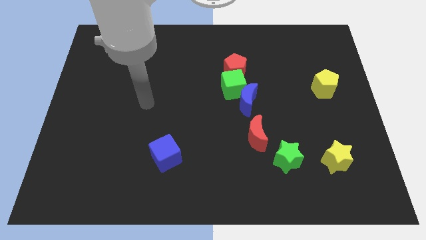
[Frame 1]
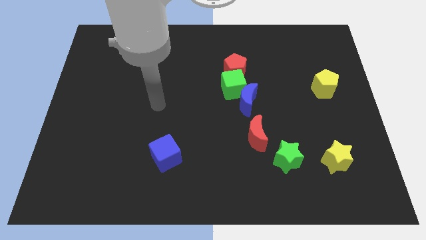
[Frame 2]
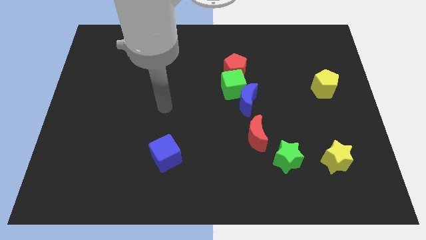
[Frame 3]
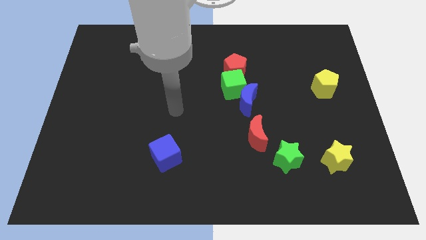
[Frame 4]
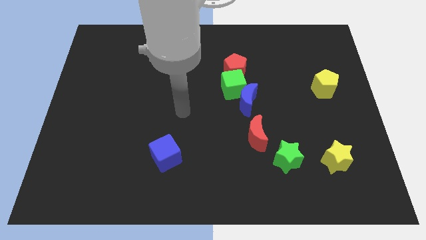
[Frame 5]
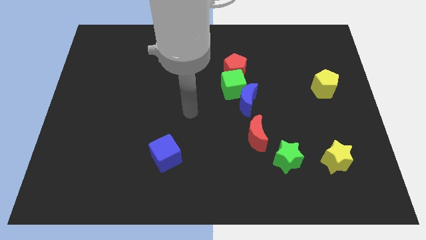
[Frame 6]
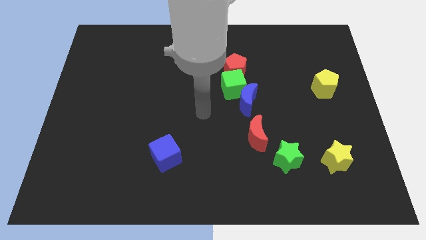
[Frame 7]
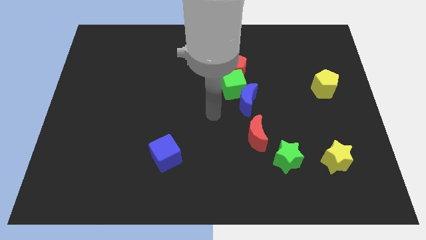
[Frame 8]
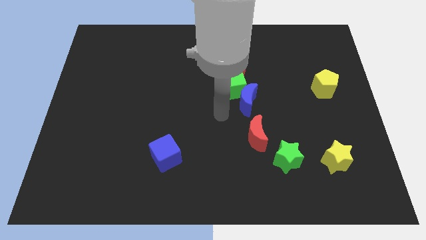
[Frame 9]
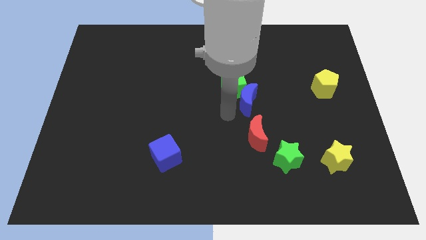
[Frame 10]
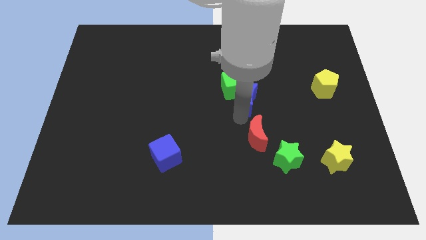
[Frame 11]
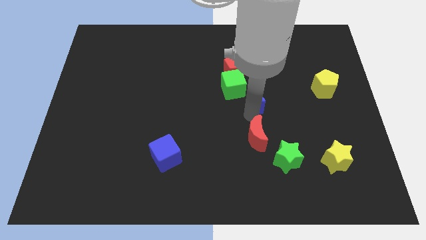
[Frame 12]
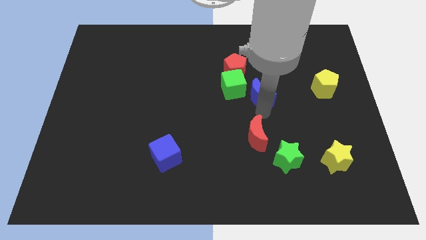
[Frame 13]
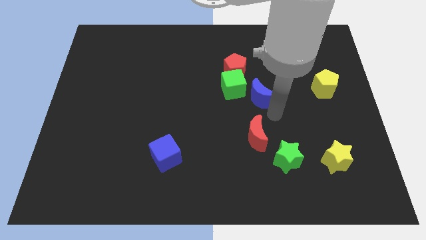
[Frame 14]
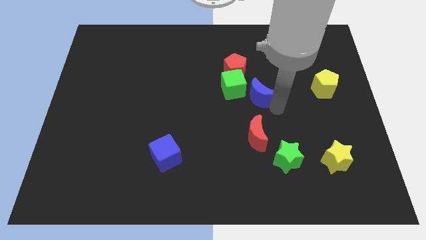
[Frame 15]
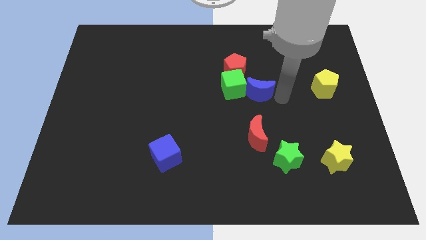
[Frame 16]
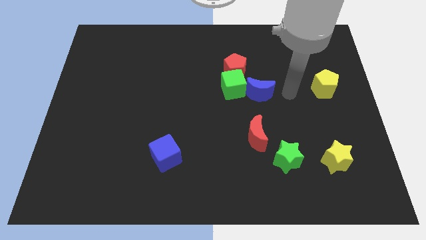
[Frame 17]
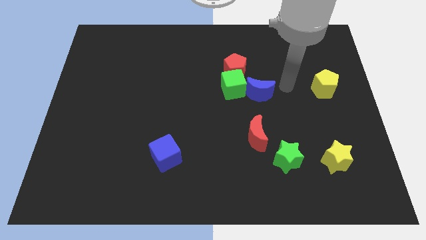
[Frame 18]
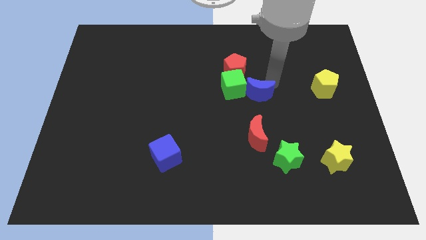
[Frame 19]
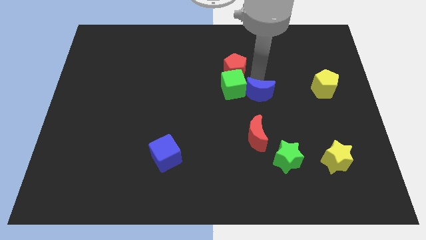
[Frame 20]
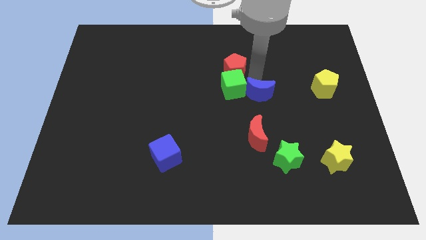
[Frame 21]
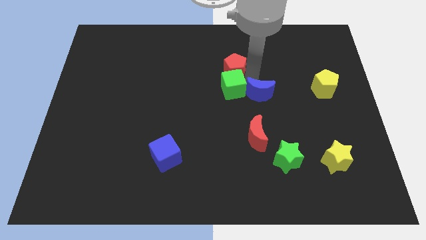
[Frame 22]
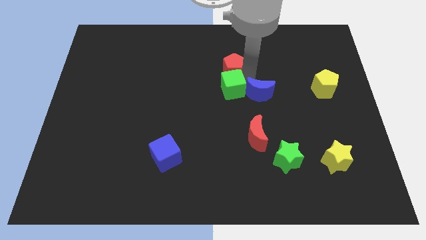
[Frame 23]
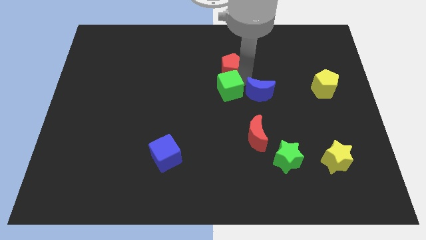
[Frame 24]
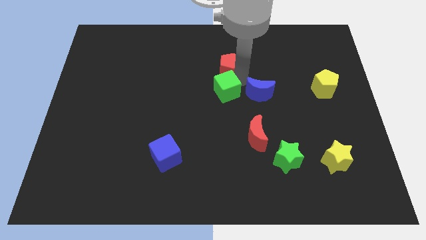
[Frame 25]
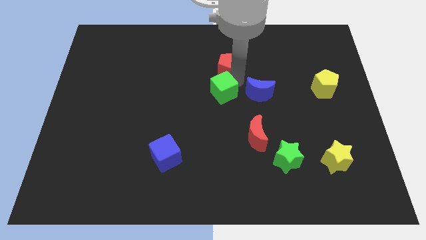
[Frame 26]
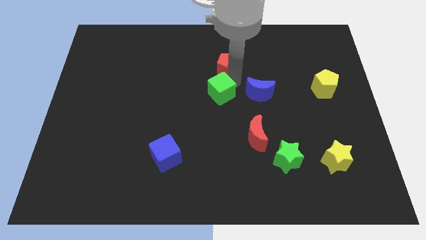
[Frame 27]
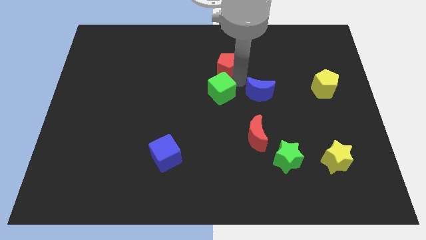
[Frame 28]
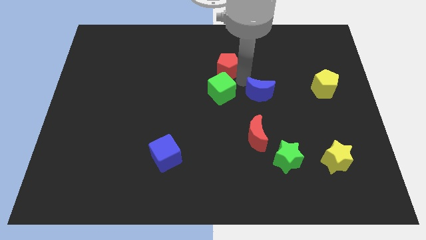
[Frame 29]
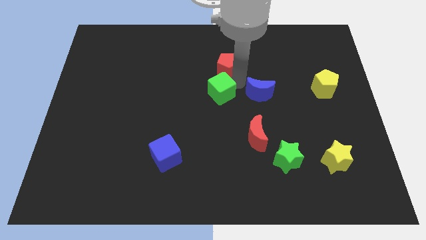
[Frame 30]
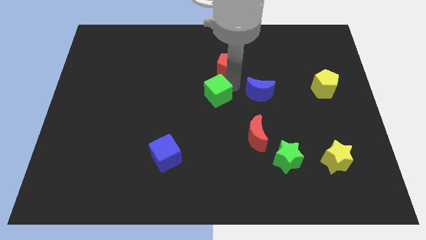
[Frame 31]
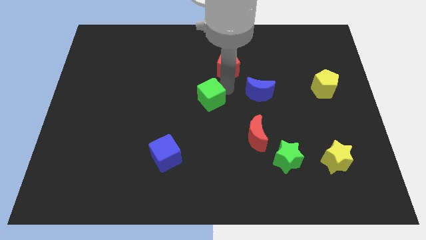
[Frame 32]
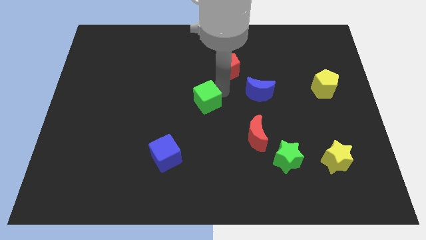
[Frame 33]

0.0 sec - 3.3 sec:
separate the green cube from the blue moon and red pentagon

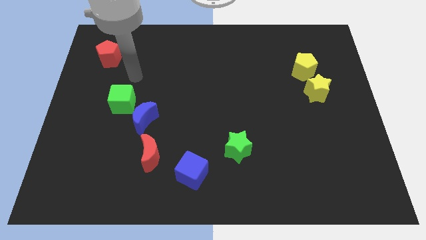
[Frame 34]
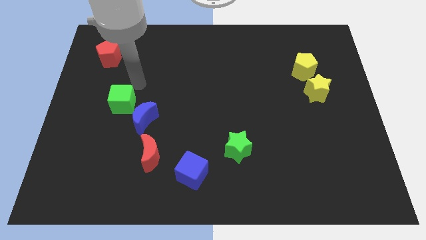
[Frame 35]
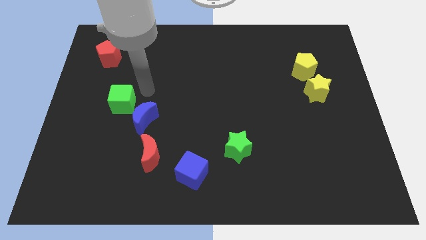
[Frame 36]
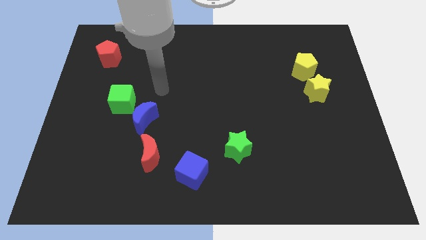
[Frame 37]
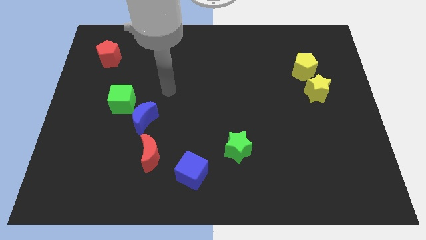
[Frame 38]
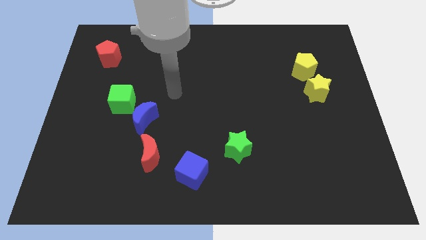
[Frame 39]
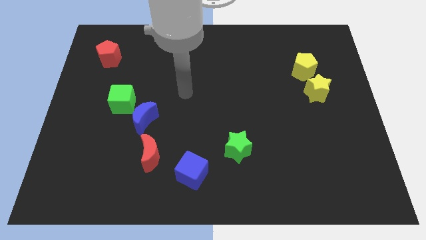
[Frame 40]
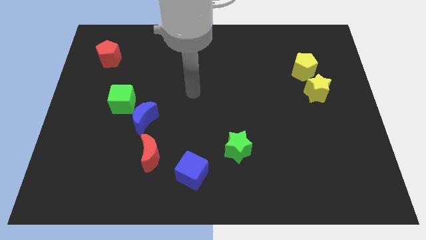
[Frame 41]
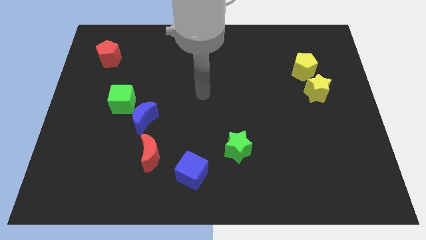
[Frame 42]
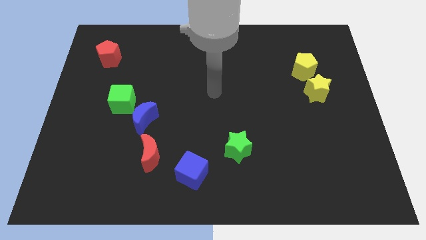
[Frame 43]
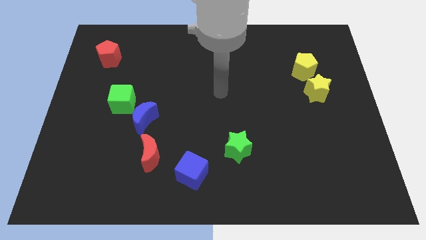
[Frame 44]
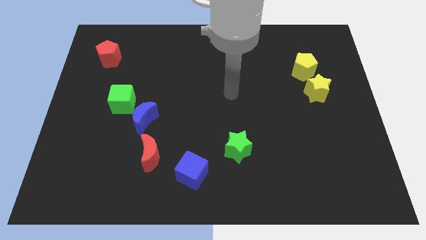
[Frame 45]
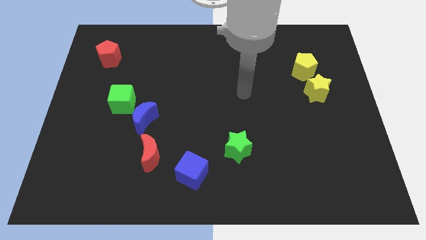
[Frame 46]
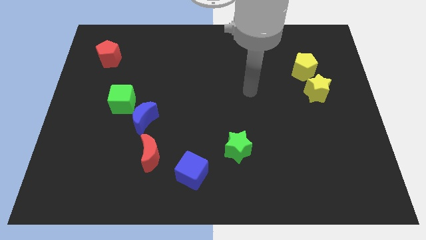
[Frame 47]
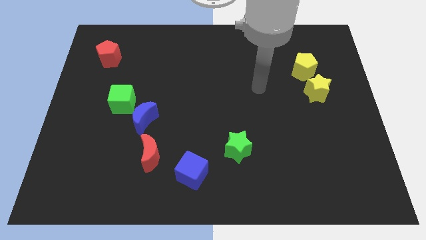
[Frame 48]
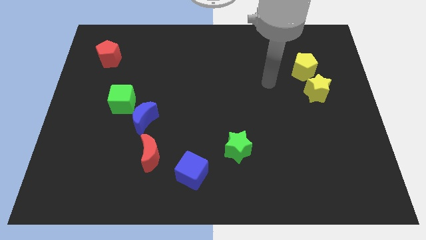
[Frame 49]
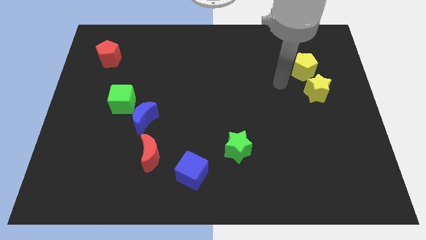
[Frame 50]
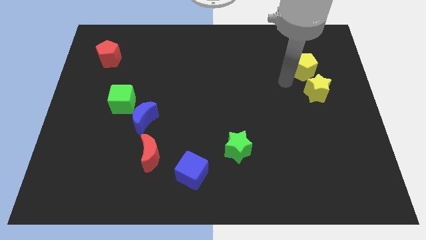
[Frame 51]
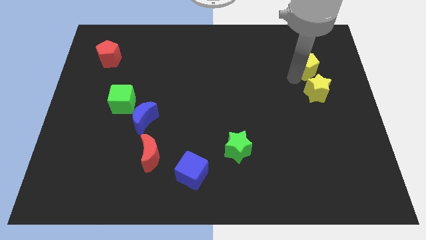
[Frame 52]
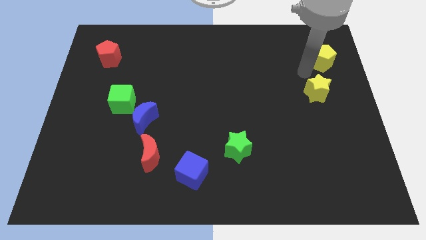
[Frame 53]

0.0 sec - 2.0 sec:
move the yellow star away from the yellow pentagon

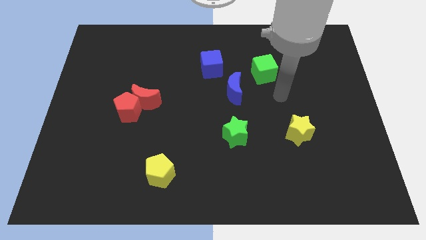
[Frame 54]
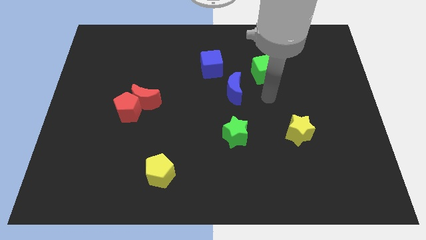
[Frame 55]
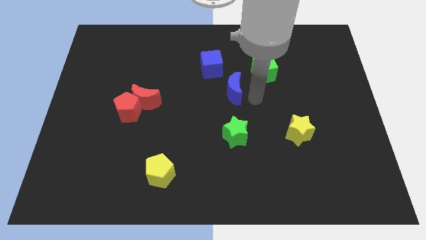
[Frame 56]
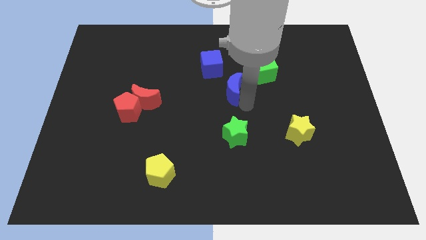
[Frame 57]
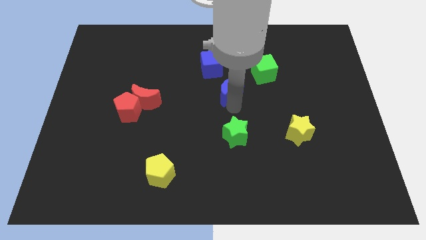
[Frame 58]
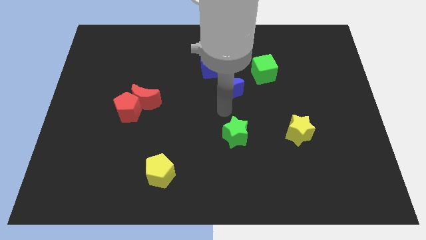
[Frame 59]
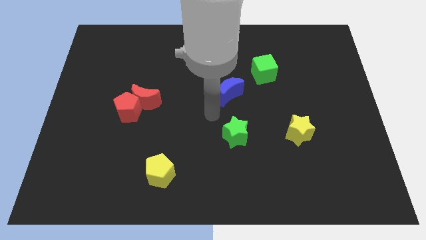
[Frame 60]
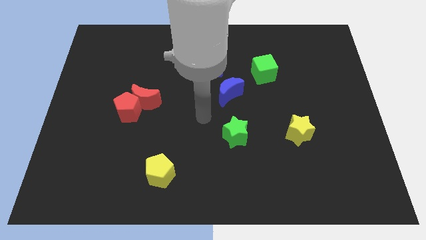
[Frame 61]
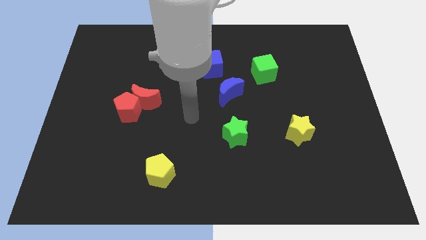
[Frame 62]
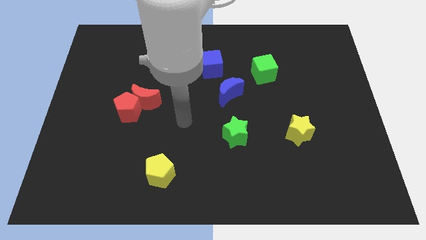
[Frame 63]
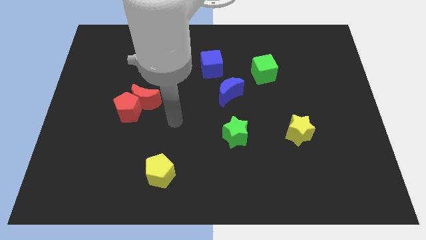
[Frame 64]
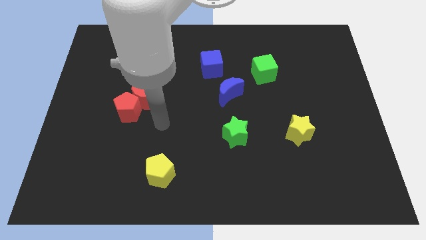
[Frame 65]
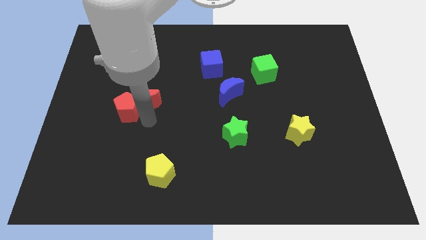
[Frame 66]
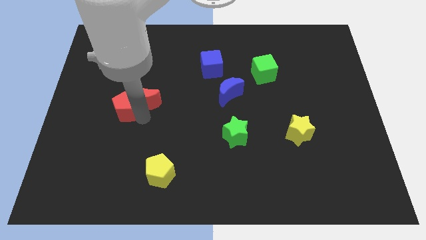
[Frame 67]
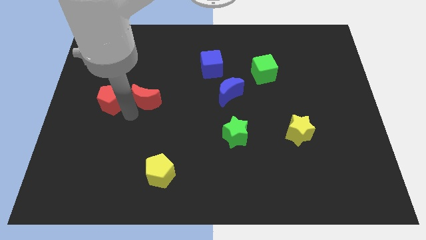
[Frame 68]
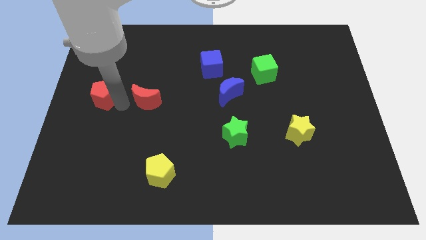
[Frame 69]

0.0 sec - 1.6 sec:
move the red moon away from the red pentagon

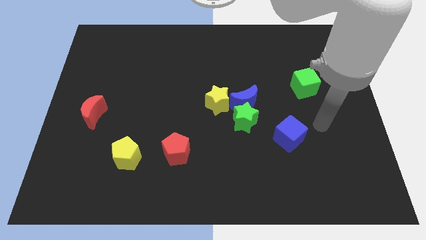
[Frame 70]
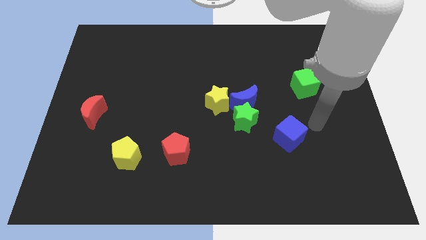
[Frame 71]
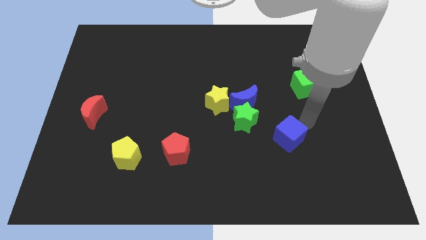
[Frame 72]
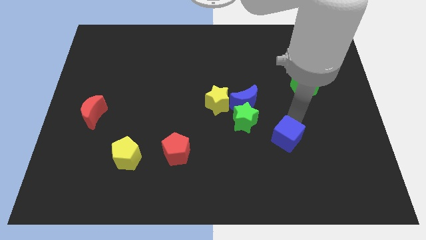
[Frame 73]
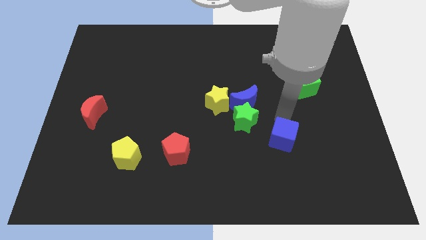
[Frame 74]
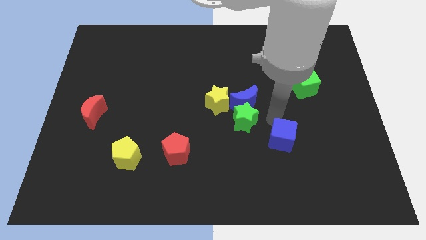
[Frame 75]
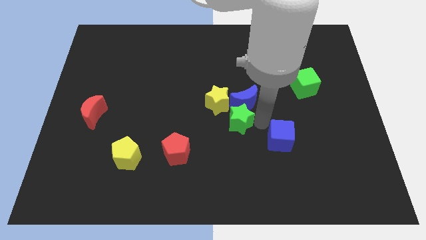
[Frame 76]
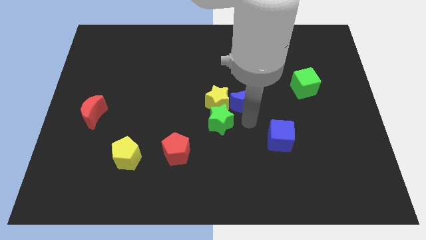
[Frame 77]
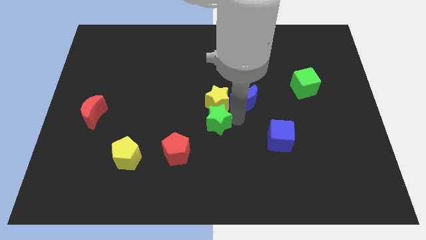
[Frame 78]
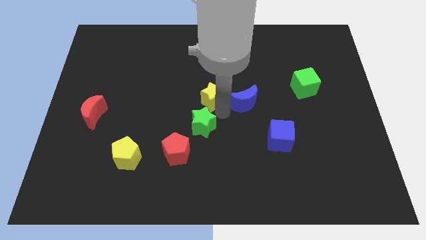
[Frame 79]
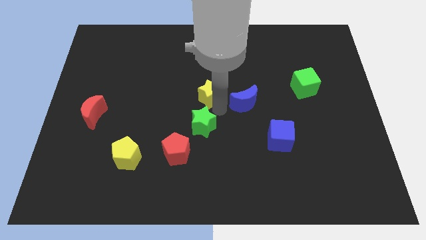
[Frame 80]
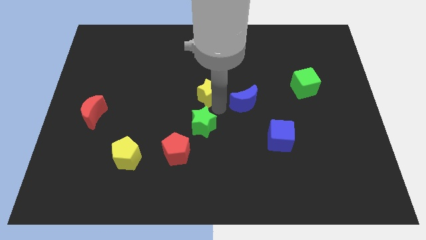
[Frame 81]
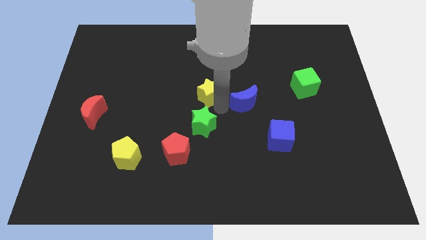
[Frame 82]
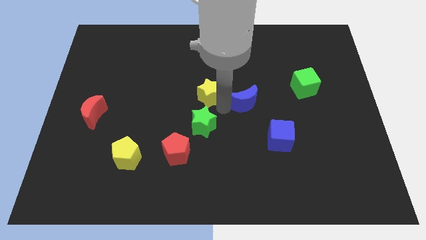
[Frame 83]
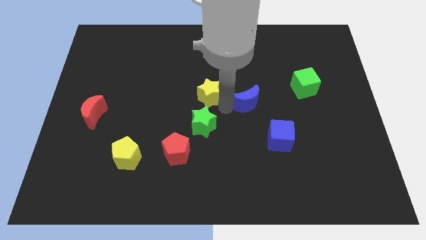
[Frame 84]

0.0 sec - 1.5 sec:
pull the blue moon apart from the green star and yellow star

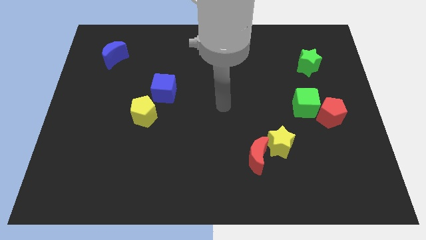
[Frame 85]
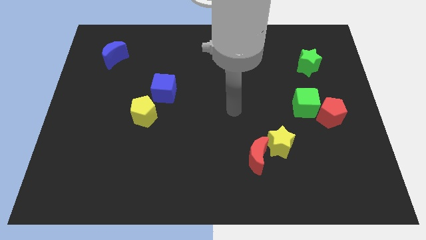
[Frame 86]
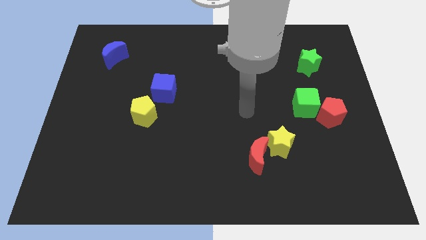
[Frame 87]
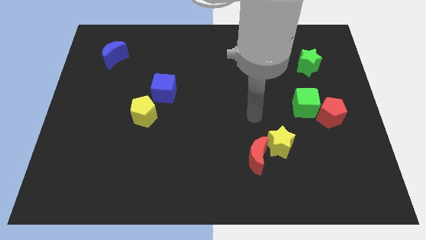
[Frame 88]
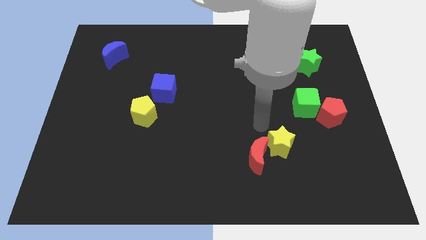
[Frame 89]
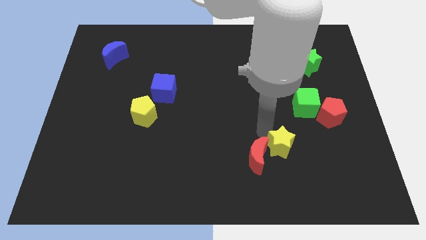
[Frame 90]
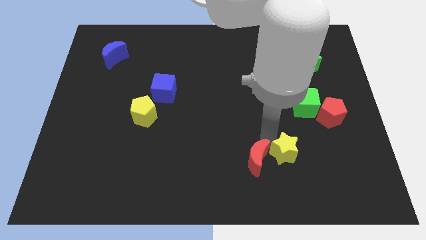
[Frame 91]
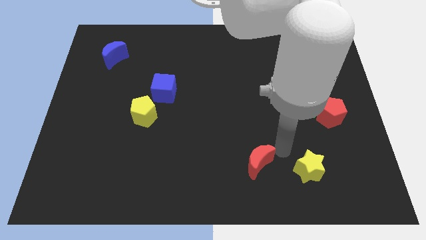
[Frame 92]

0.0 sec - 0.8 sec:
pull the red moon apart from the yellow star
